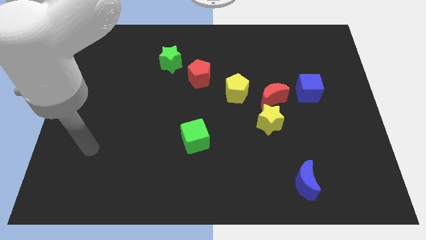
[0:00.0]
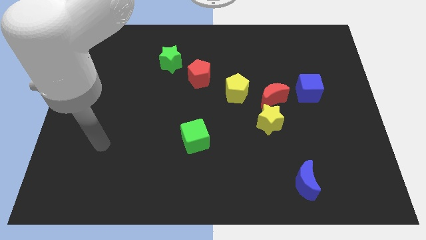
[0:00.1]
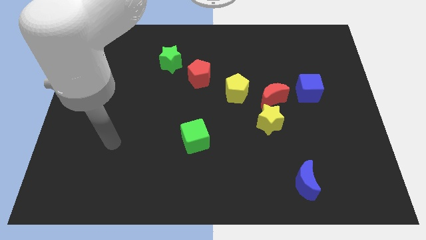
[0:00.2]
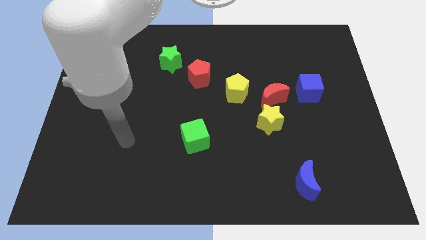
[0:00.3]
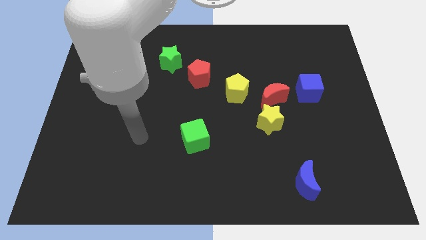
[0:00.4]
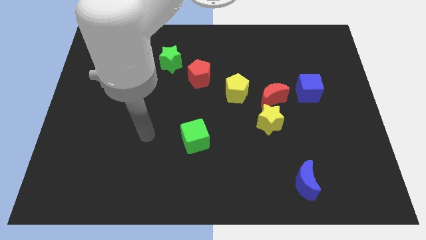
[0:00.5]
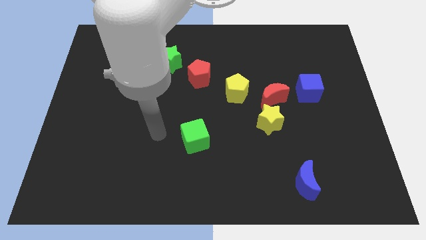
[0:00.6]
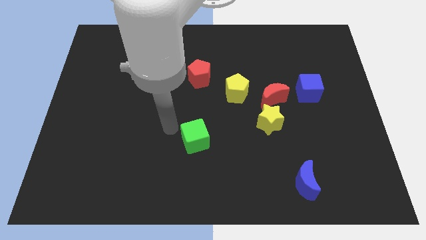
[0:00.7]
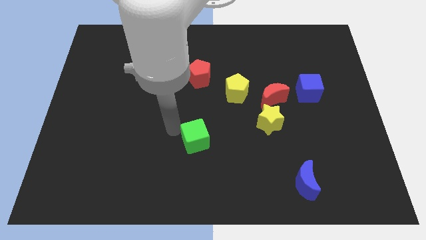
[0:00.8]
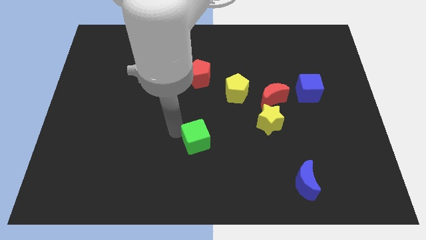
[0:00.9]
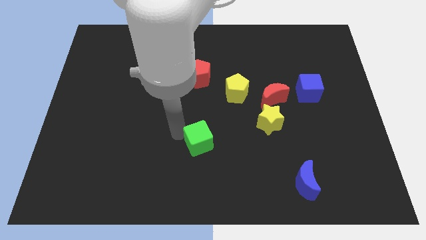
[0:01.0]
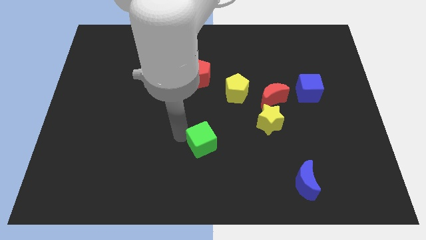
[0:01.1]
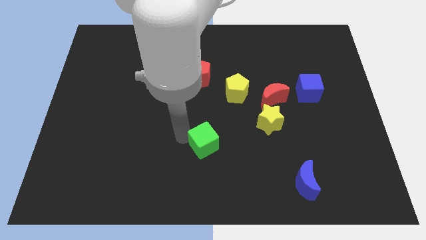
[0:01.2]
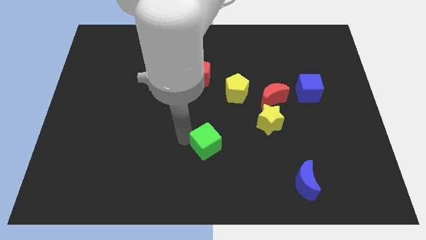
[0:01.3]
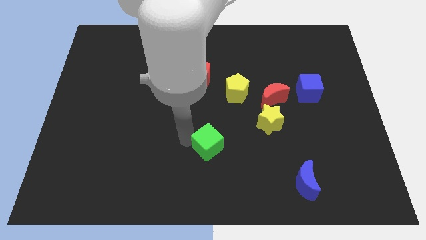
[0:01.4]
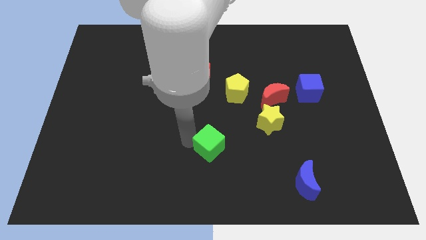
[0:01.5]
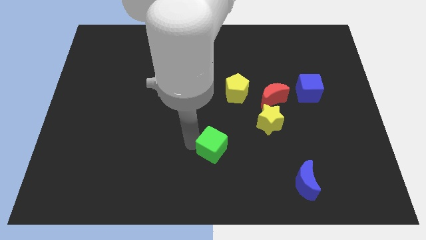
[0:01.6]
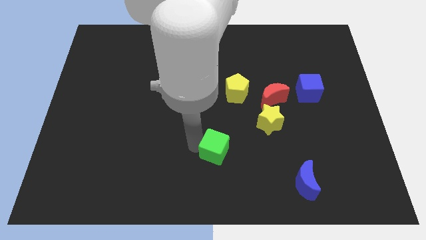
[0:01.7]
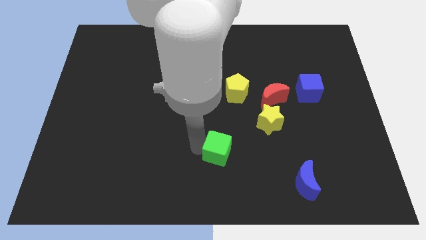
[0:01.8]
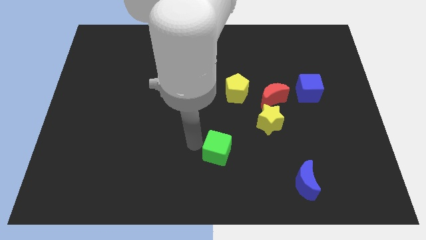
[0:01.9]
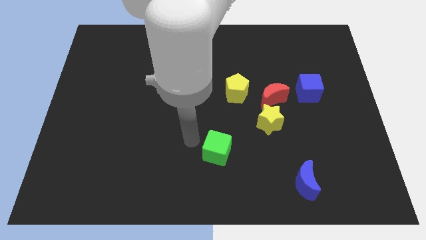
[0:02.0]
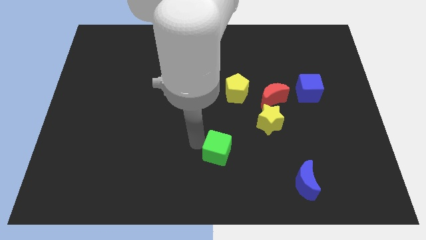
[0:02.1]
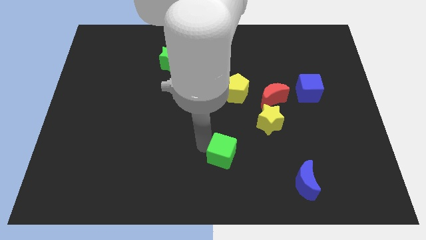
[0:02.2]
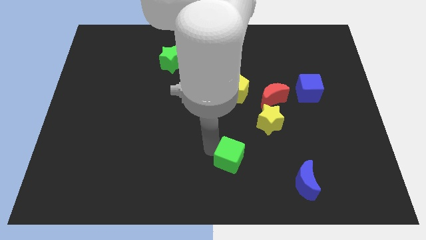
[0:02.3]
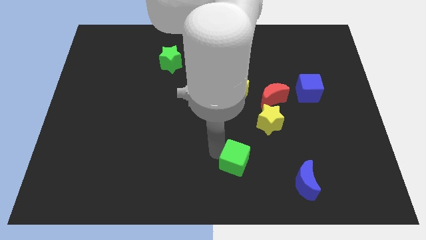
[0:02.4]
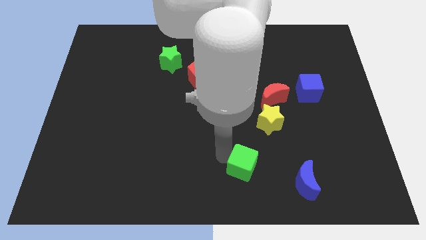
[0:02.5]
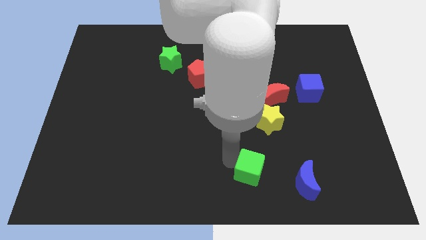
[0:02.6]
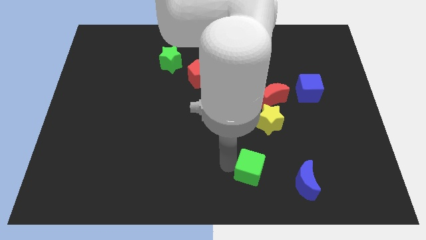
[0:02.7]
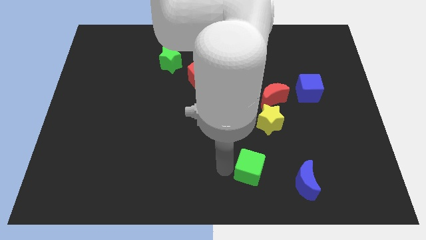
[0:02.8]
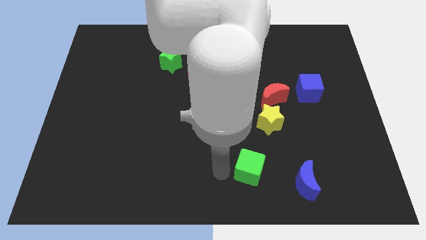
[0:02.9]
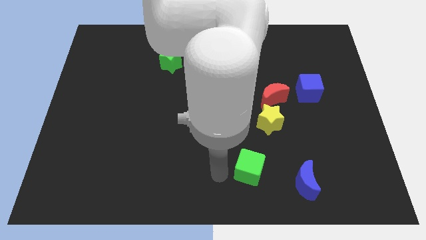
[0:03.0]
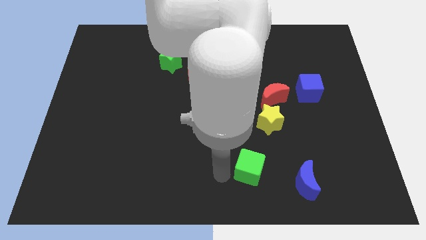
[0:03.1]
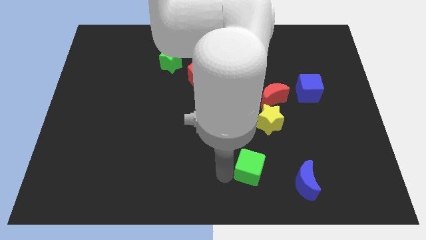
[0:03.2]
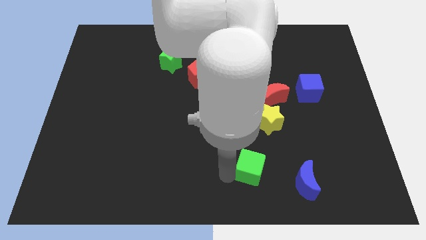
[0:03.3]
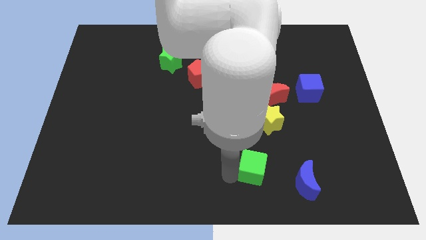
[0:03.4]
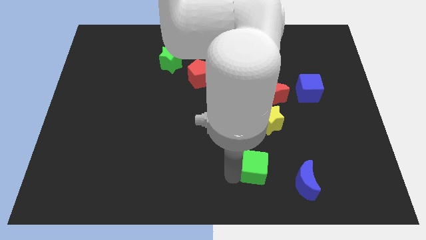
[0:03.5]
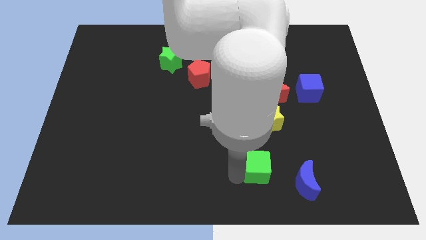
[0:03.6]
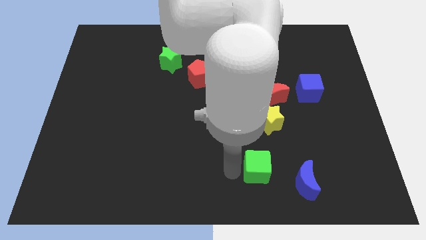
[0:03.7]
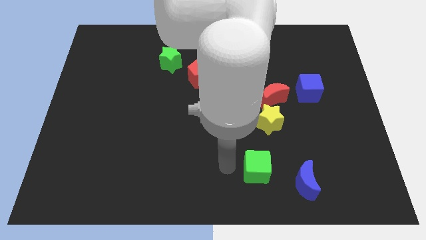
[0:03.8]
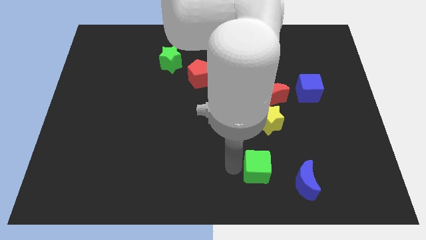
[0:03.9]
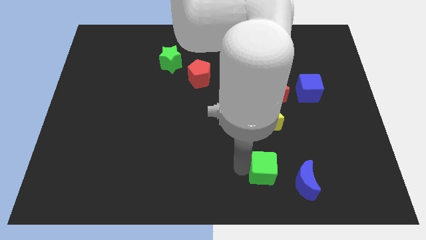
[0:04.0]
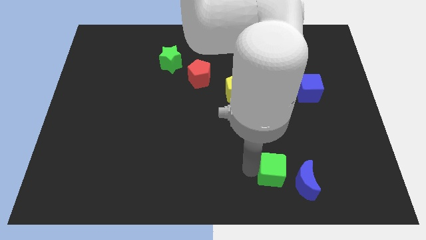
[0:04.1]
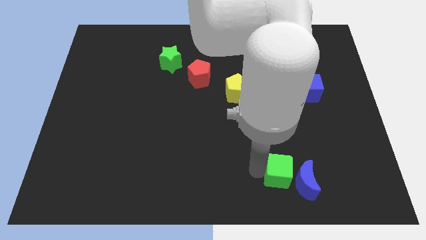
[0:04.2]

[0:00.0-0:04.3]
put the green cube towards the blue moon

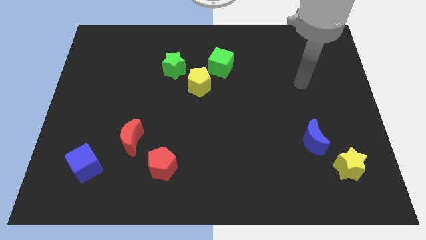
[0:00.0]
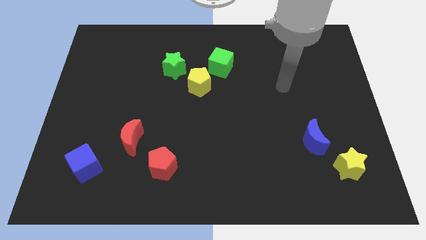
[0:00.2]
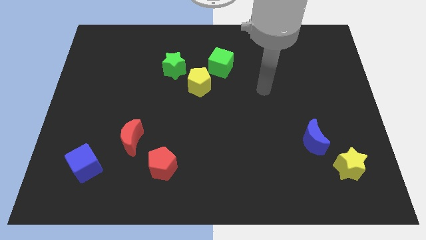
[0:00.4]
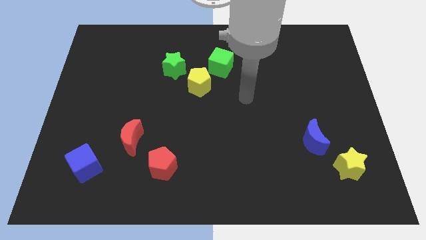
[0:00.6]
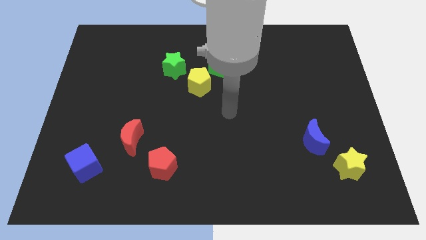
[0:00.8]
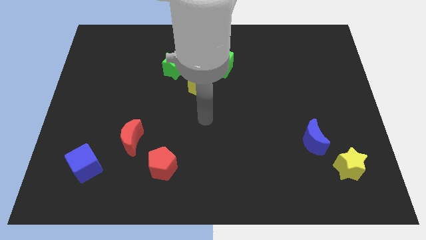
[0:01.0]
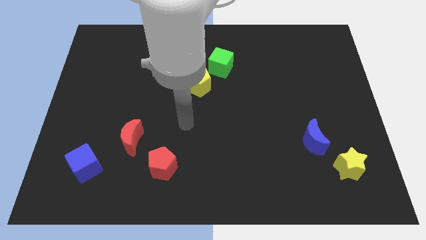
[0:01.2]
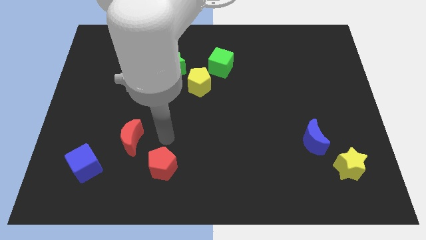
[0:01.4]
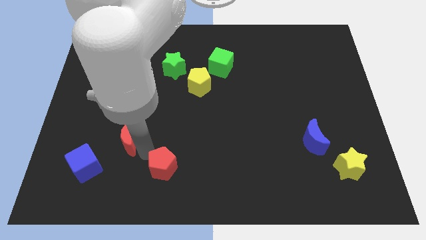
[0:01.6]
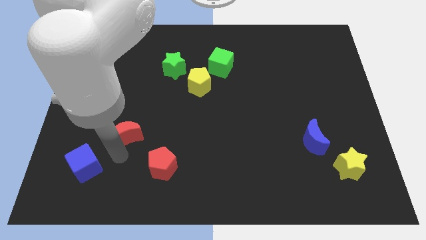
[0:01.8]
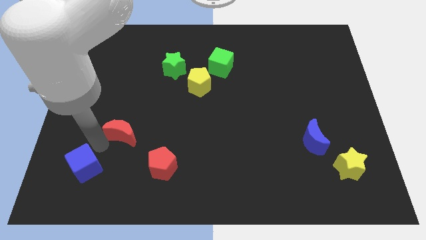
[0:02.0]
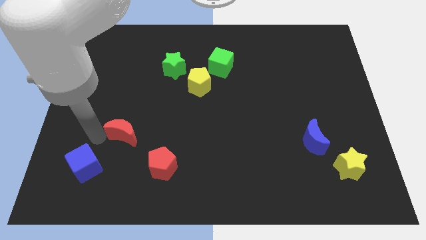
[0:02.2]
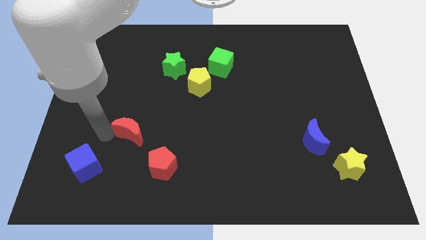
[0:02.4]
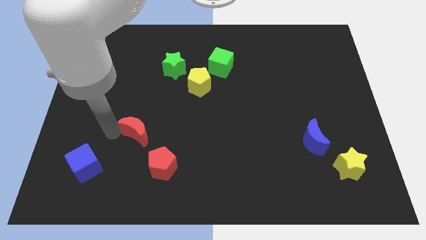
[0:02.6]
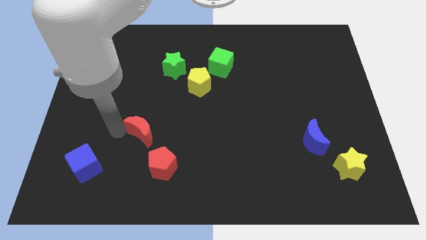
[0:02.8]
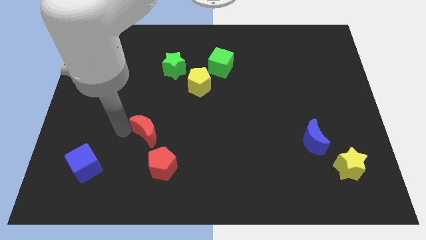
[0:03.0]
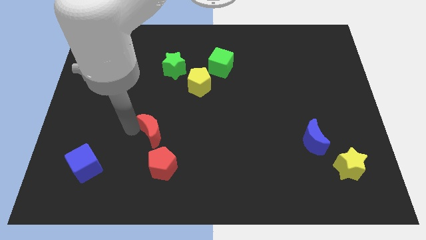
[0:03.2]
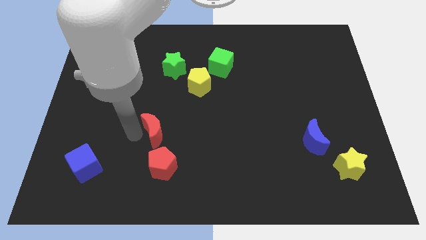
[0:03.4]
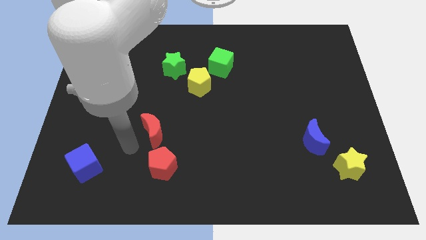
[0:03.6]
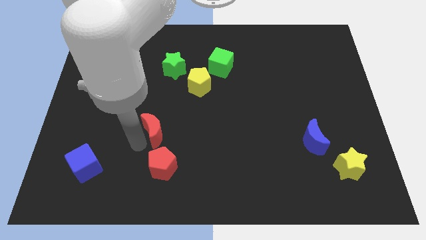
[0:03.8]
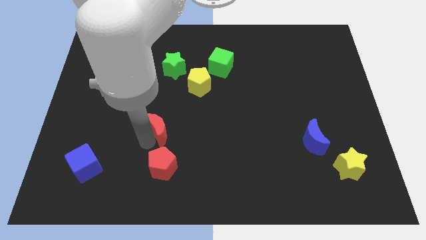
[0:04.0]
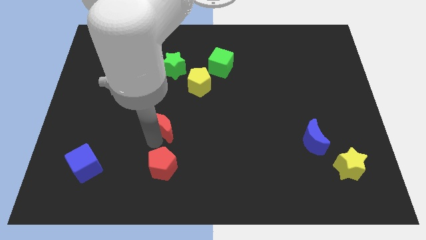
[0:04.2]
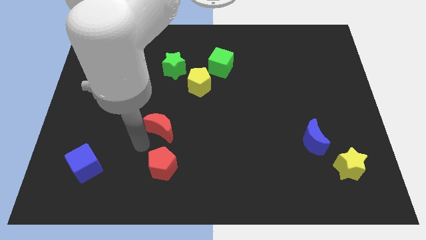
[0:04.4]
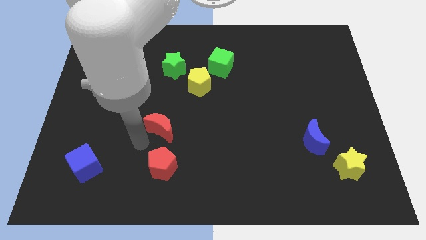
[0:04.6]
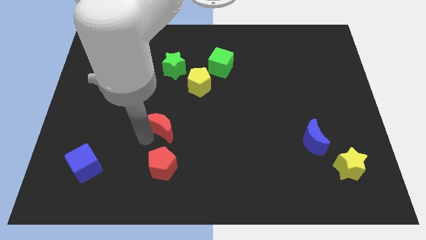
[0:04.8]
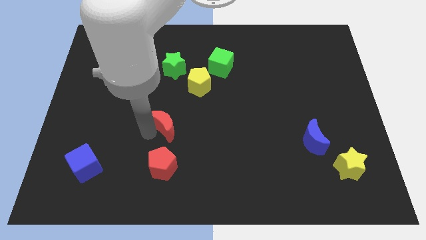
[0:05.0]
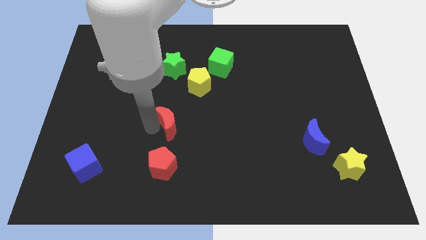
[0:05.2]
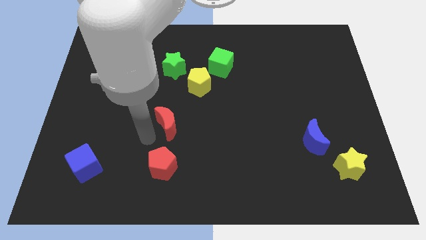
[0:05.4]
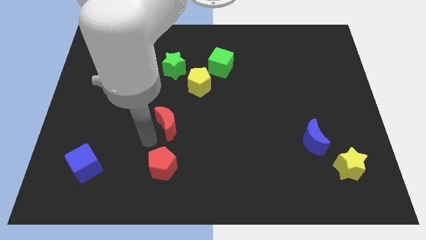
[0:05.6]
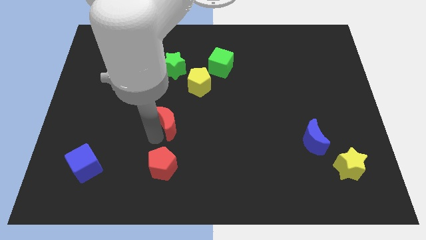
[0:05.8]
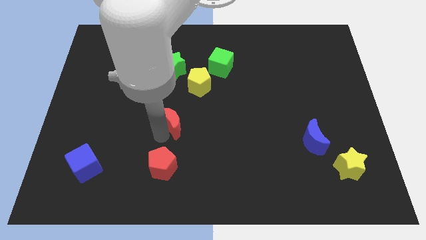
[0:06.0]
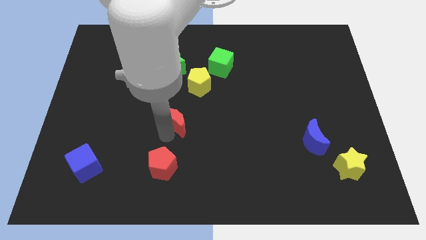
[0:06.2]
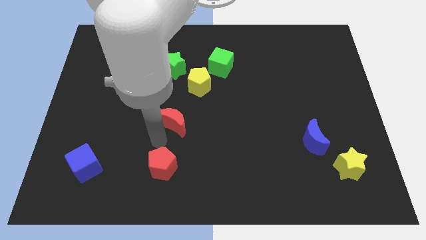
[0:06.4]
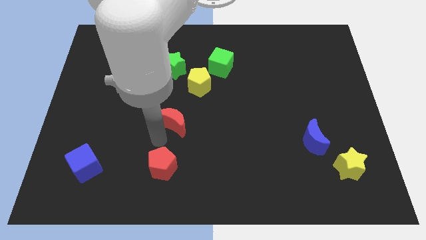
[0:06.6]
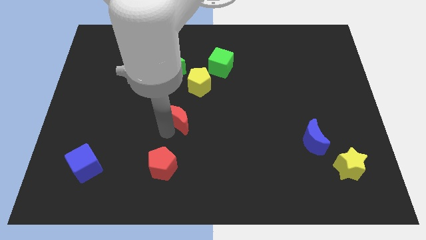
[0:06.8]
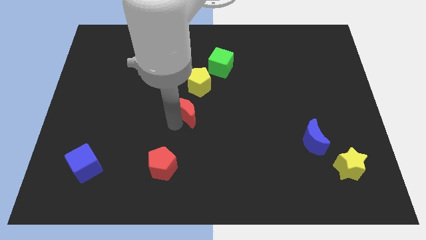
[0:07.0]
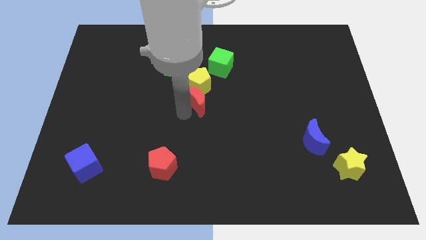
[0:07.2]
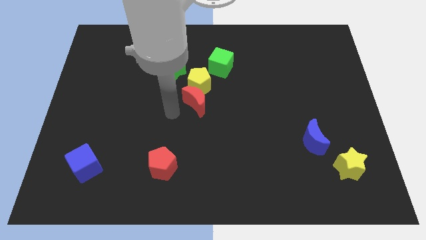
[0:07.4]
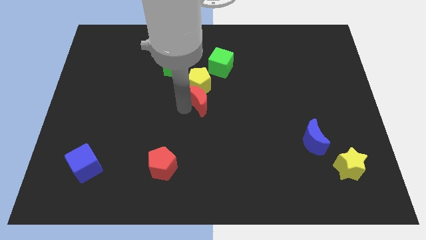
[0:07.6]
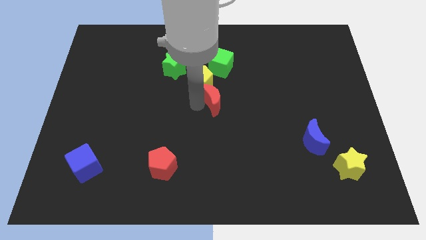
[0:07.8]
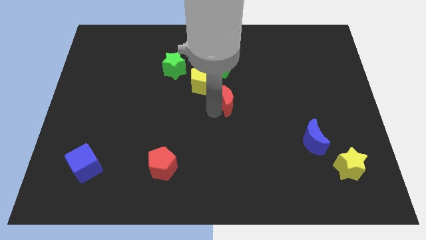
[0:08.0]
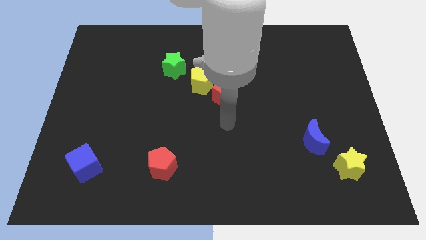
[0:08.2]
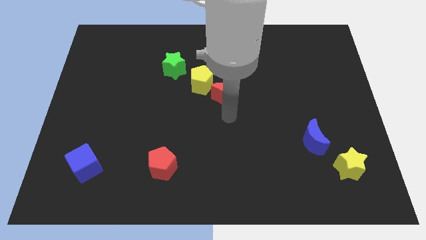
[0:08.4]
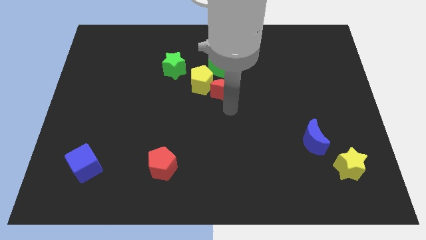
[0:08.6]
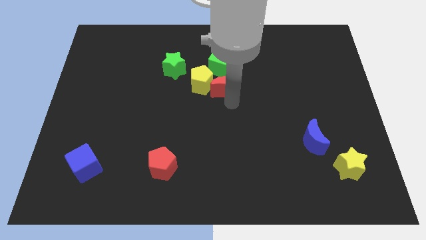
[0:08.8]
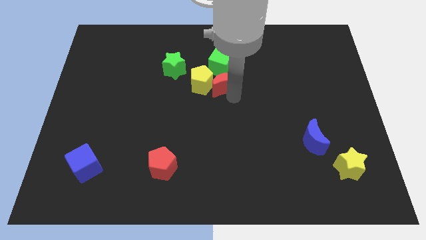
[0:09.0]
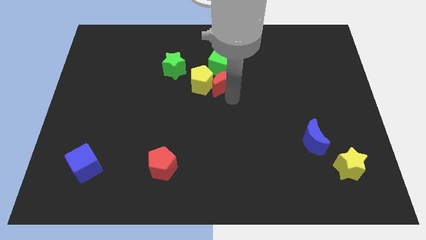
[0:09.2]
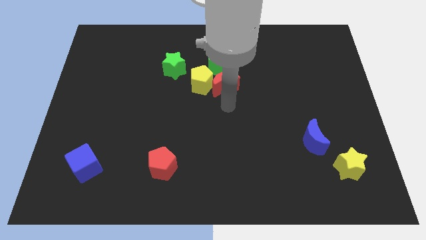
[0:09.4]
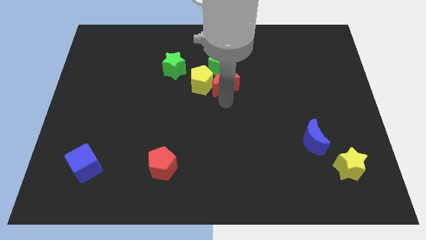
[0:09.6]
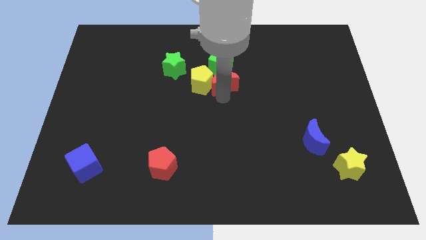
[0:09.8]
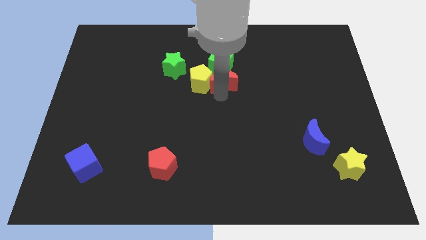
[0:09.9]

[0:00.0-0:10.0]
slide the red moon close to the green cube
